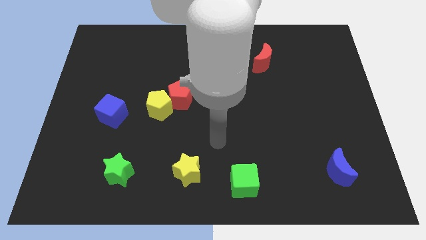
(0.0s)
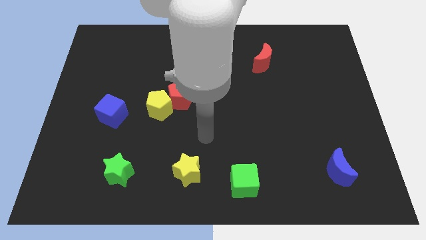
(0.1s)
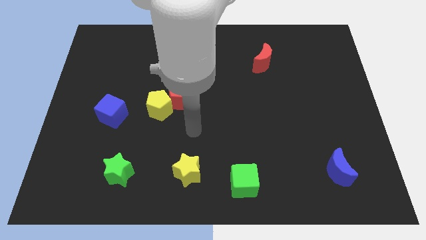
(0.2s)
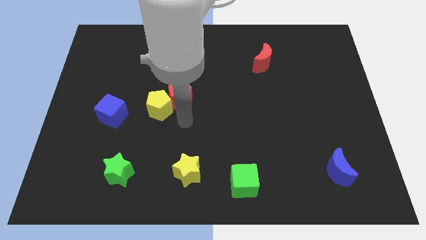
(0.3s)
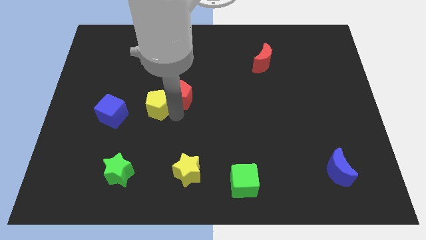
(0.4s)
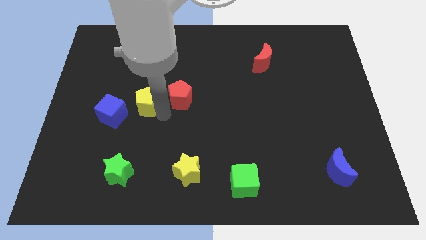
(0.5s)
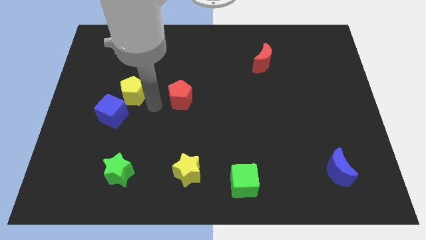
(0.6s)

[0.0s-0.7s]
separate the red pentagon from the yellow pentagon

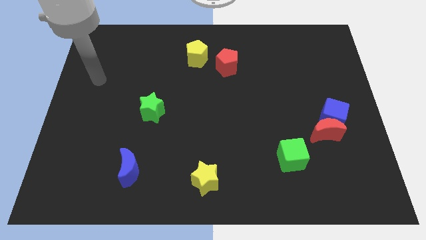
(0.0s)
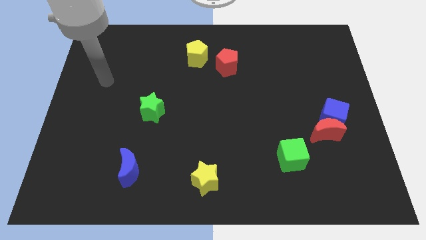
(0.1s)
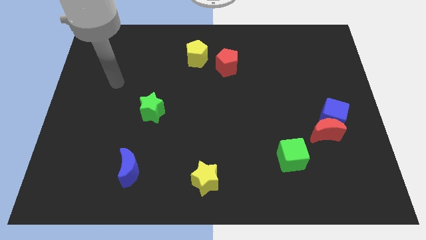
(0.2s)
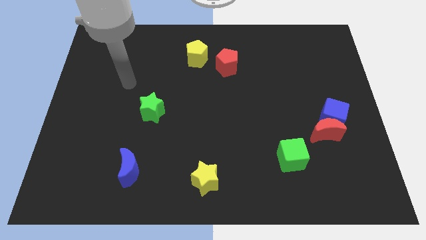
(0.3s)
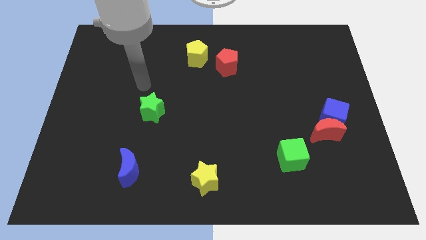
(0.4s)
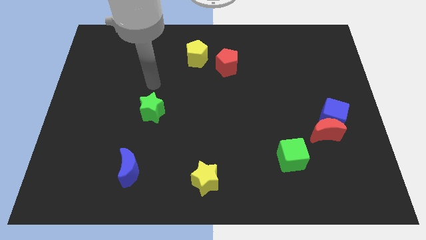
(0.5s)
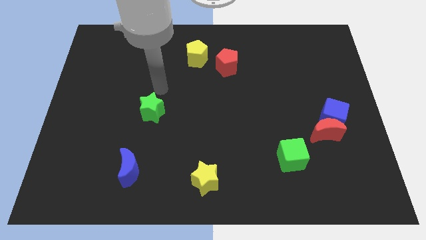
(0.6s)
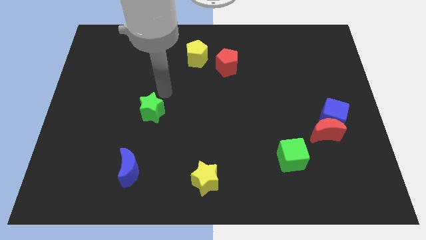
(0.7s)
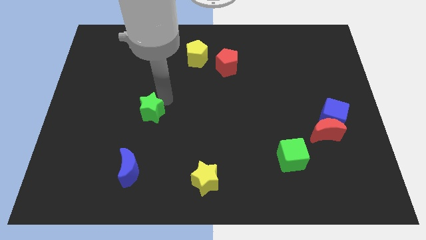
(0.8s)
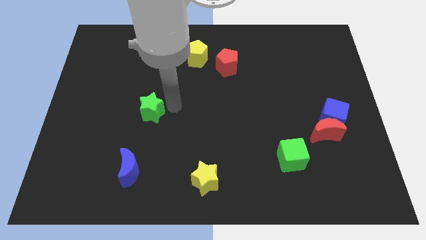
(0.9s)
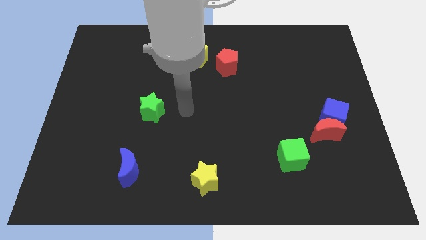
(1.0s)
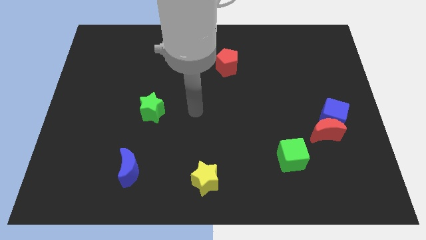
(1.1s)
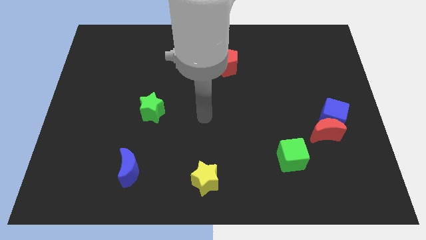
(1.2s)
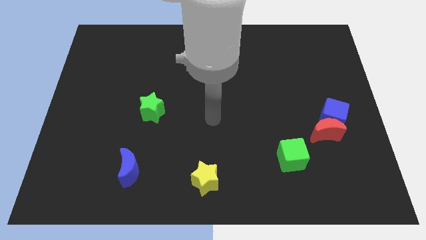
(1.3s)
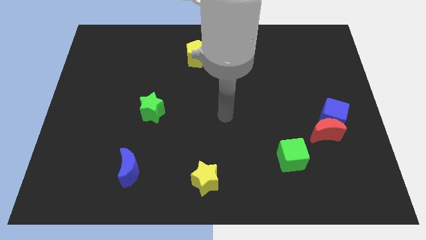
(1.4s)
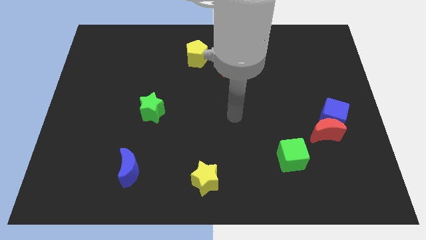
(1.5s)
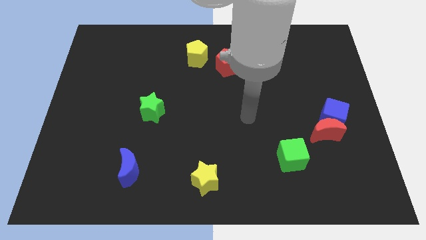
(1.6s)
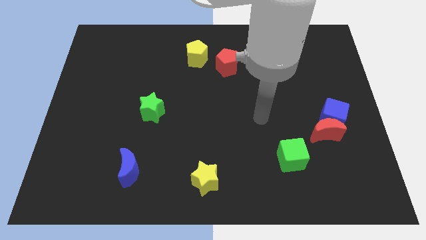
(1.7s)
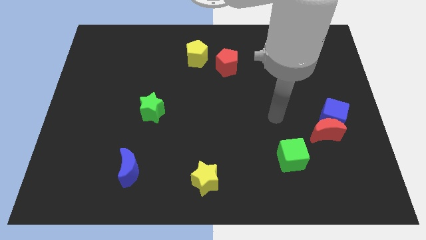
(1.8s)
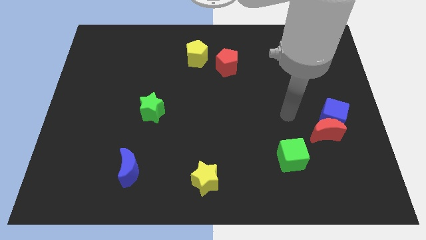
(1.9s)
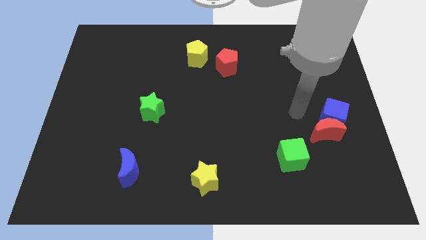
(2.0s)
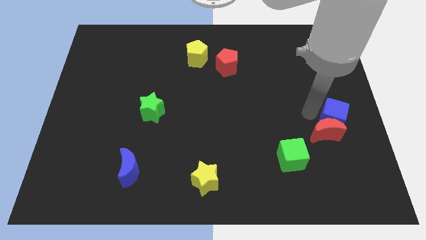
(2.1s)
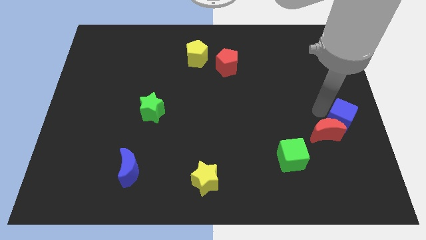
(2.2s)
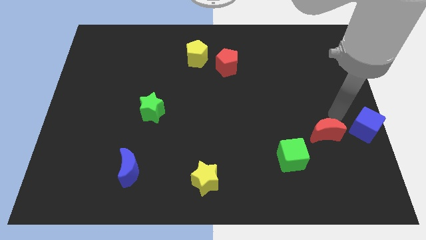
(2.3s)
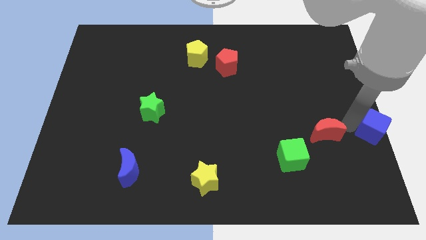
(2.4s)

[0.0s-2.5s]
move the red moon away from the blue cube

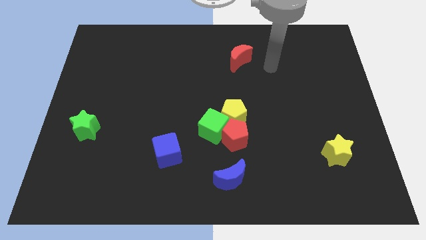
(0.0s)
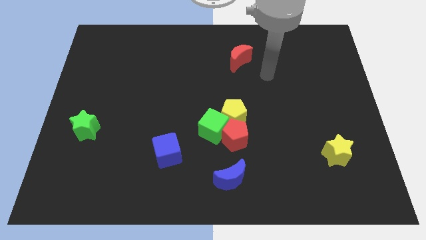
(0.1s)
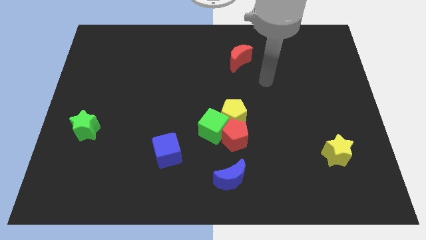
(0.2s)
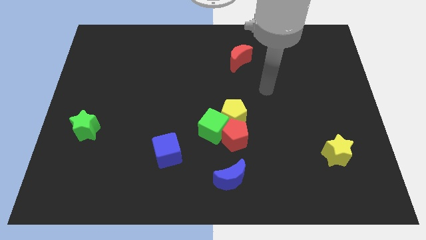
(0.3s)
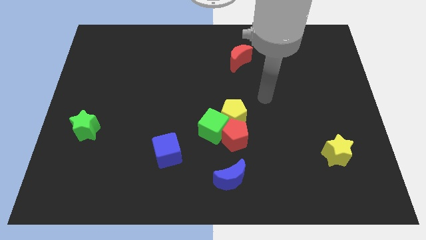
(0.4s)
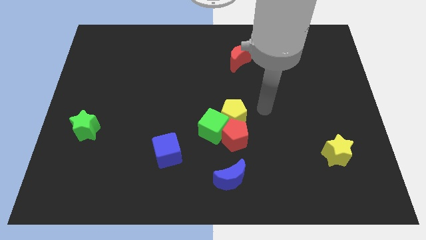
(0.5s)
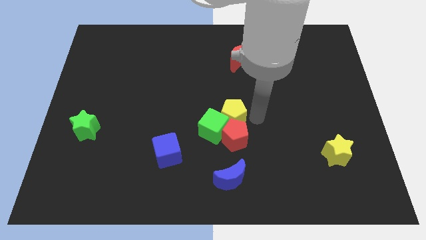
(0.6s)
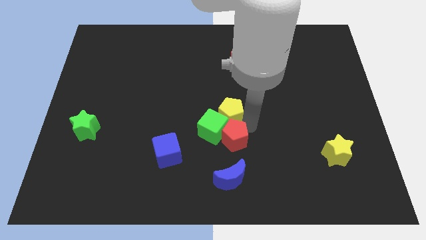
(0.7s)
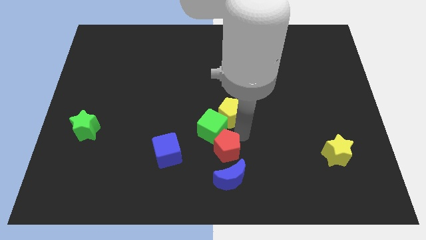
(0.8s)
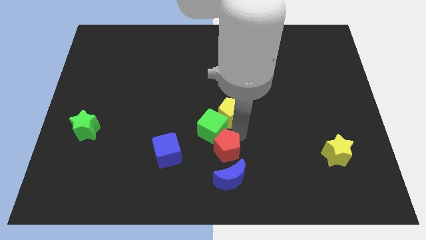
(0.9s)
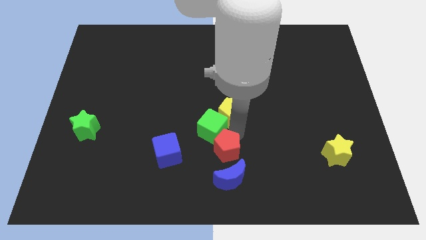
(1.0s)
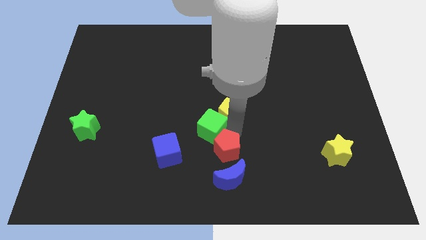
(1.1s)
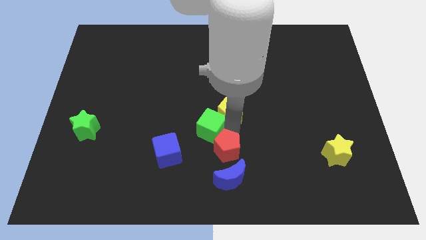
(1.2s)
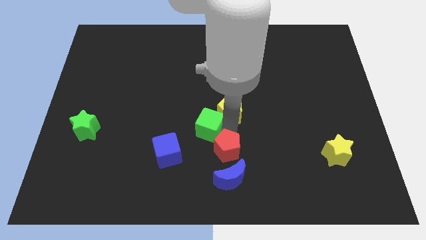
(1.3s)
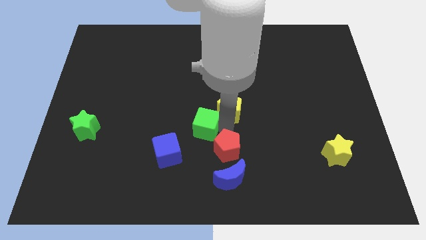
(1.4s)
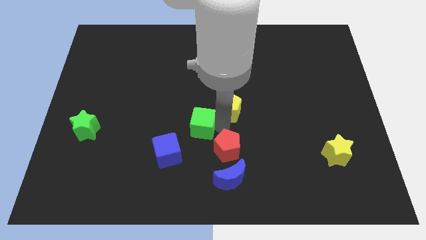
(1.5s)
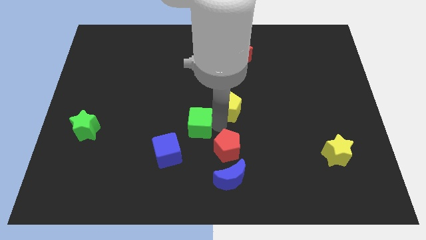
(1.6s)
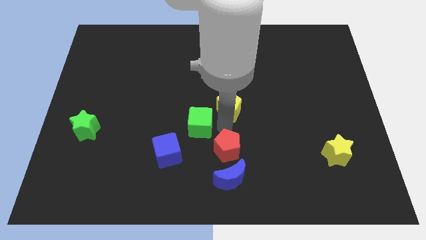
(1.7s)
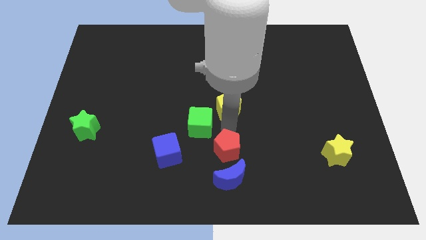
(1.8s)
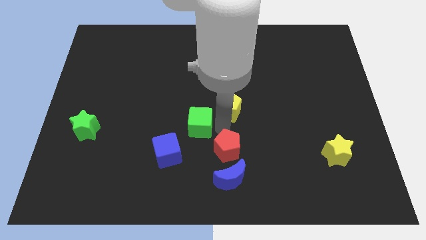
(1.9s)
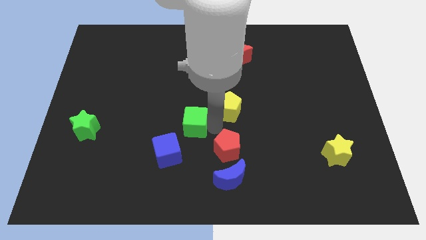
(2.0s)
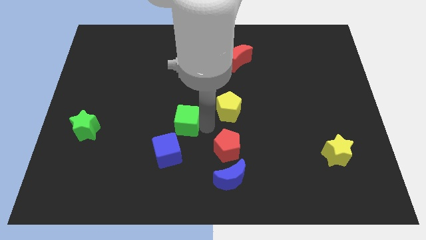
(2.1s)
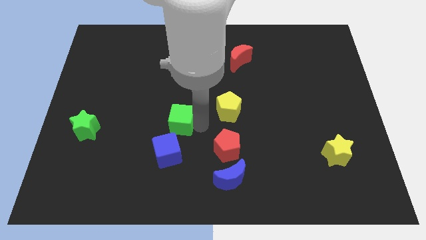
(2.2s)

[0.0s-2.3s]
move the green cube away from the red pentagon and yellow pentagon

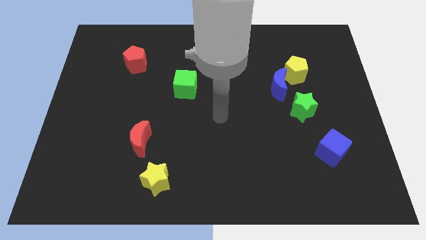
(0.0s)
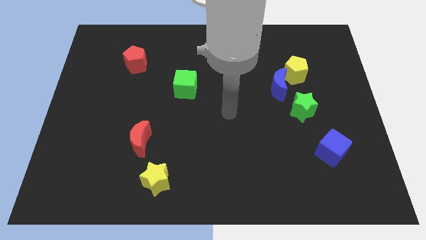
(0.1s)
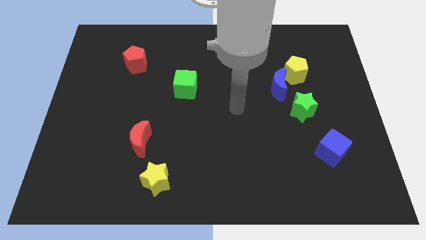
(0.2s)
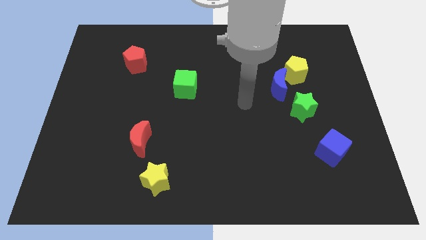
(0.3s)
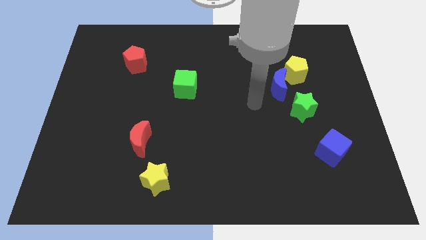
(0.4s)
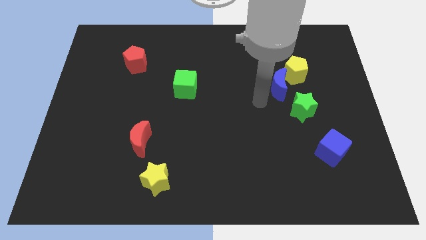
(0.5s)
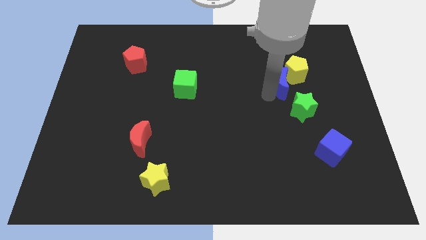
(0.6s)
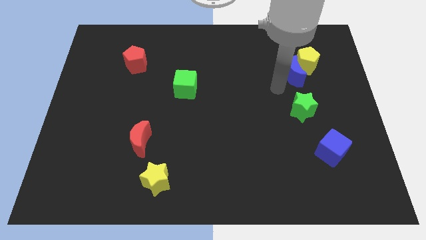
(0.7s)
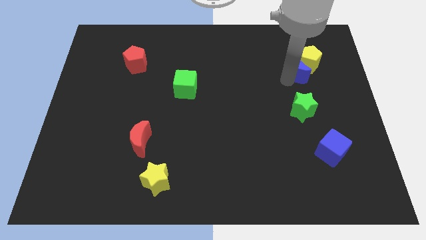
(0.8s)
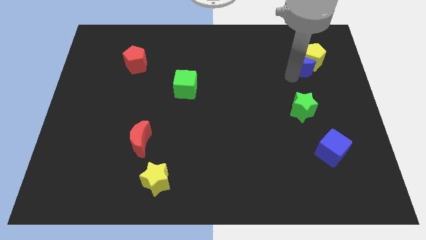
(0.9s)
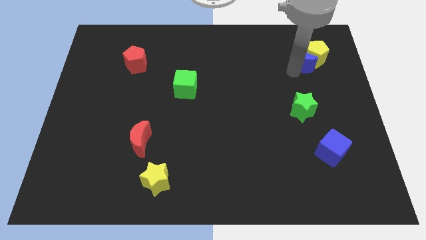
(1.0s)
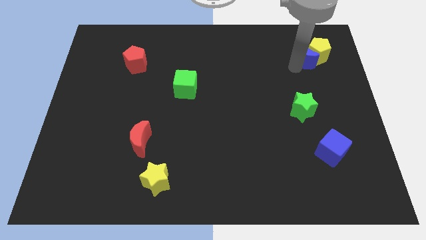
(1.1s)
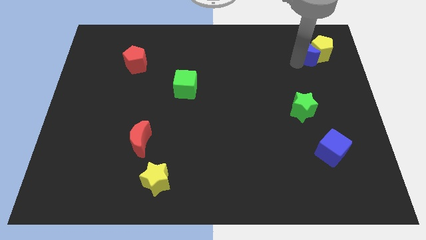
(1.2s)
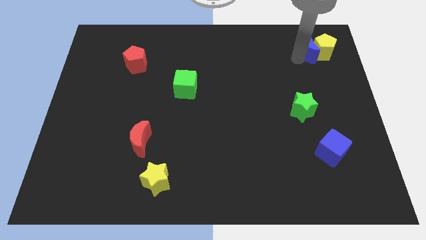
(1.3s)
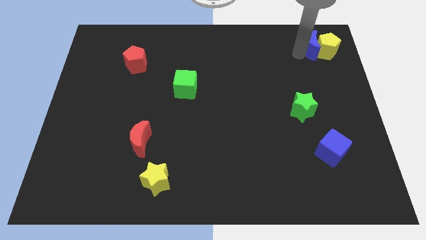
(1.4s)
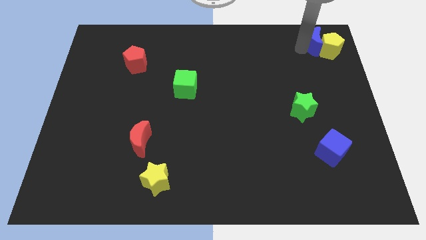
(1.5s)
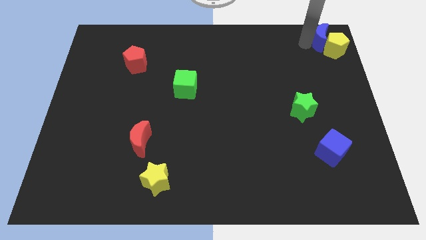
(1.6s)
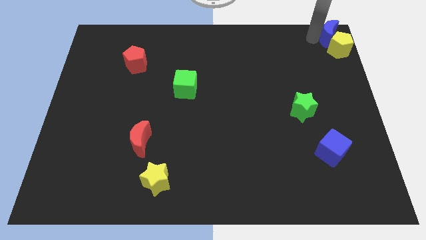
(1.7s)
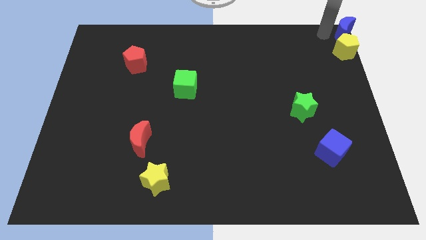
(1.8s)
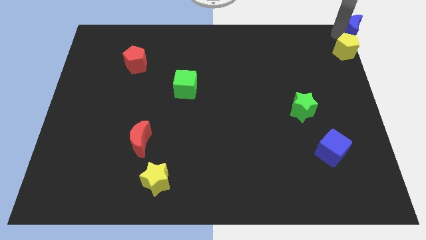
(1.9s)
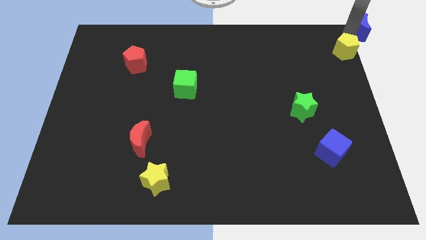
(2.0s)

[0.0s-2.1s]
pull the yellow pentagon apart from the blue moon

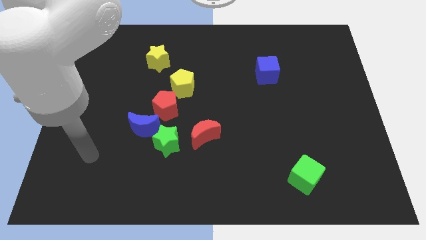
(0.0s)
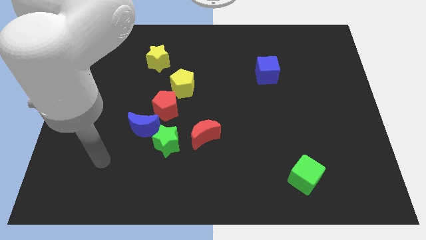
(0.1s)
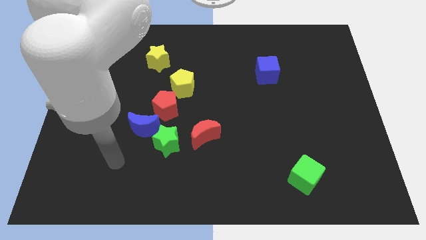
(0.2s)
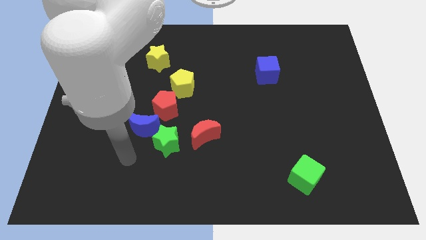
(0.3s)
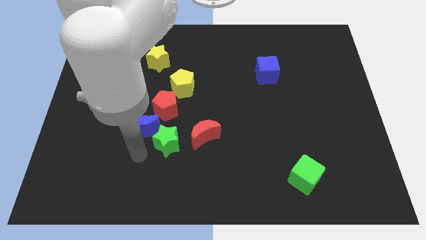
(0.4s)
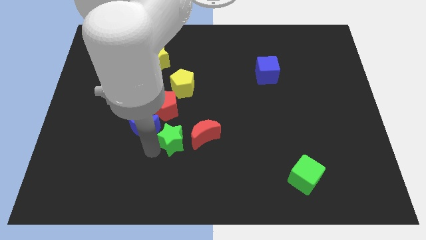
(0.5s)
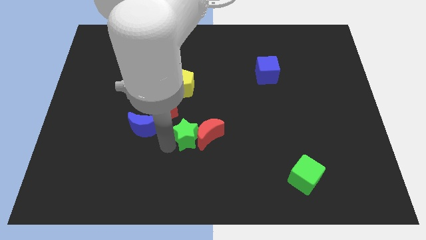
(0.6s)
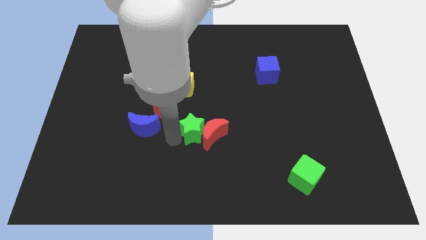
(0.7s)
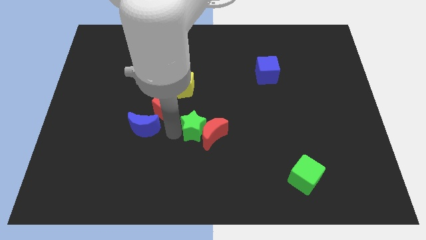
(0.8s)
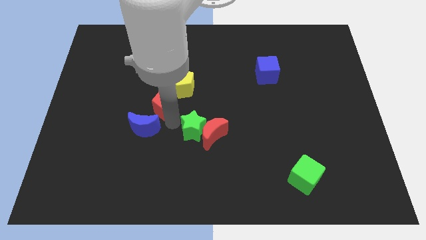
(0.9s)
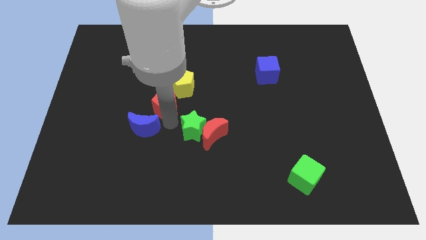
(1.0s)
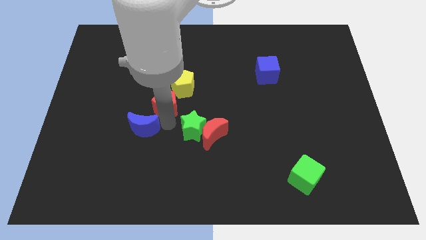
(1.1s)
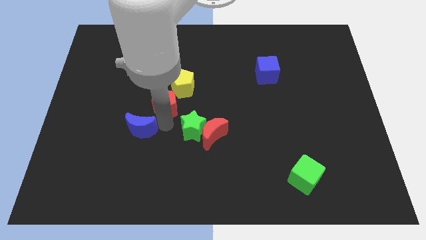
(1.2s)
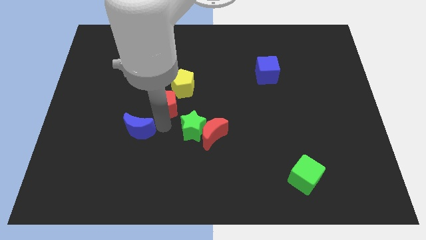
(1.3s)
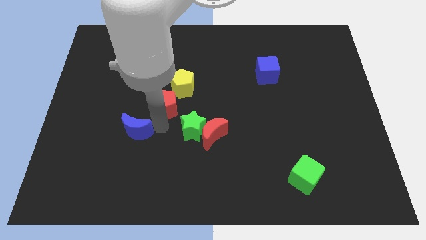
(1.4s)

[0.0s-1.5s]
separate the blue moon from the green star and red pentagon
